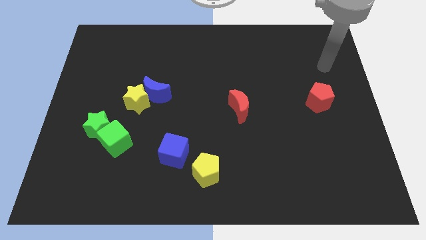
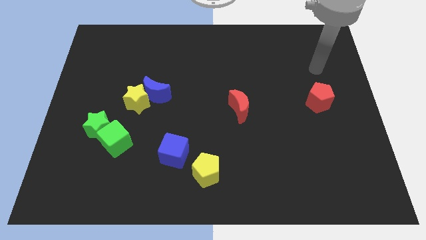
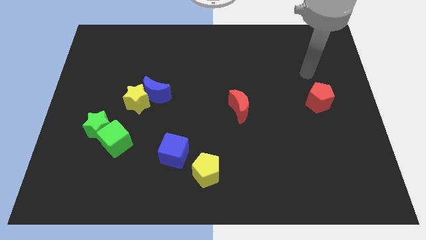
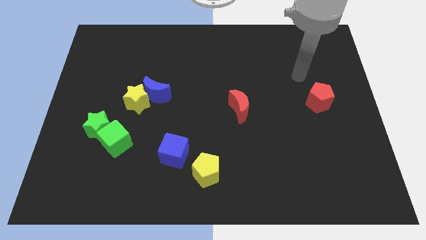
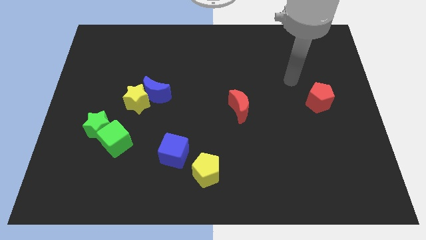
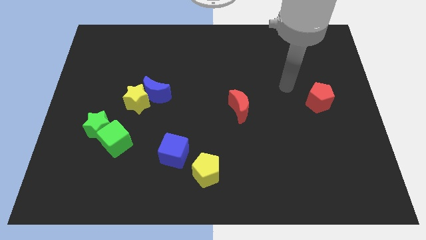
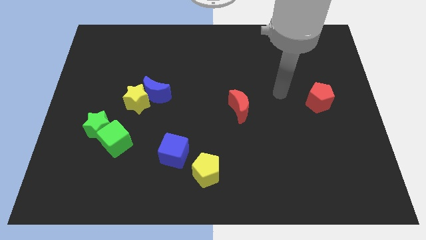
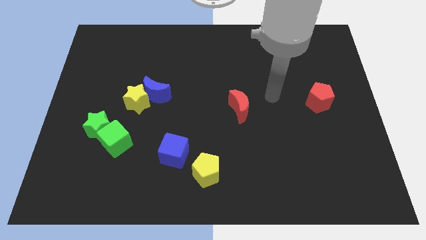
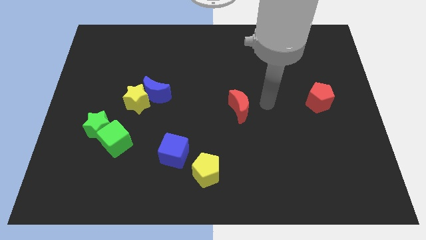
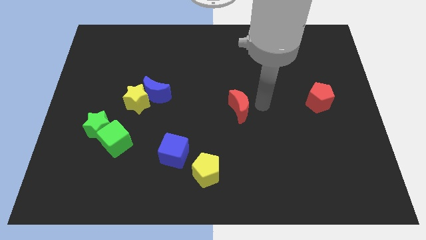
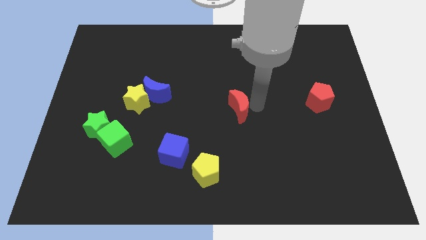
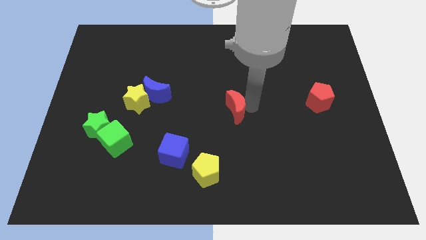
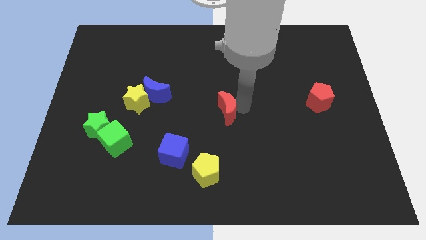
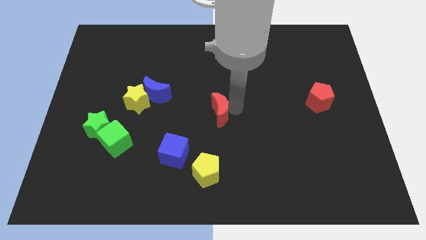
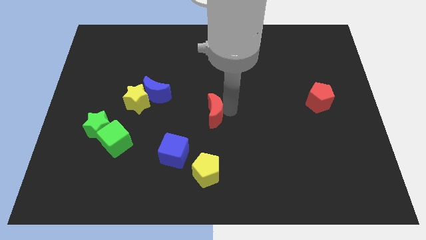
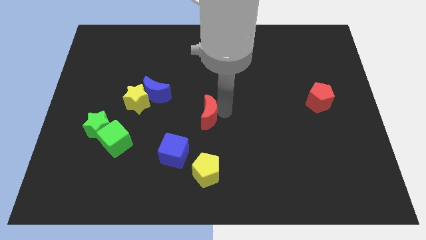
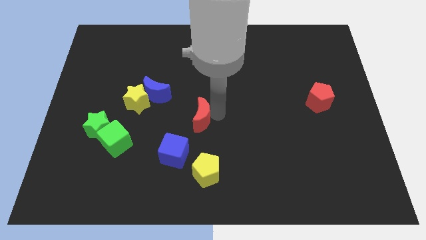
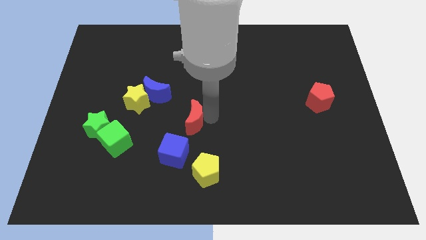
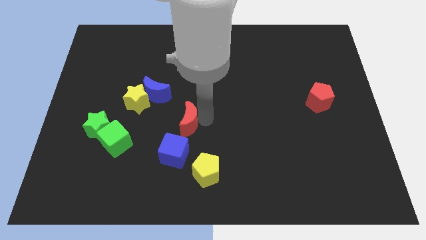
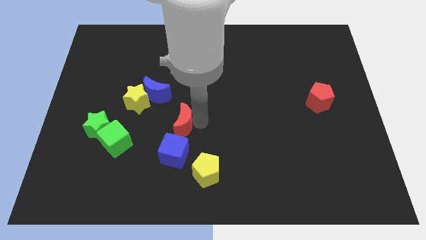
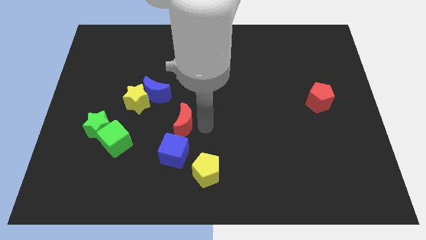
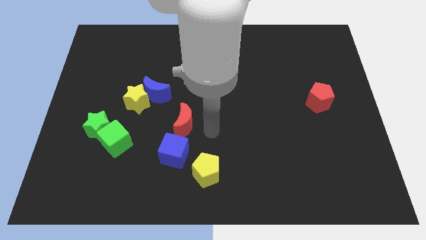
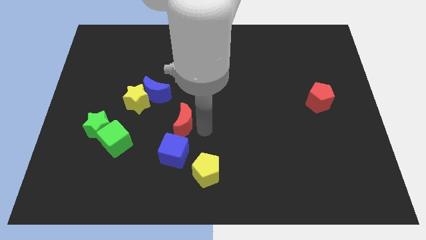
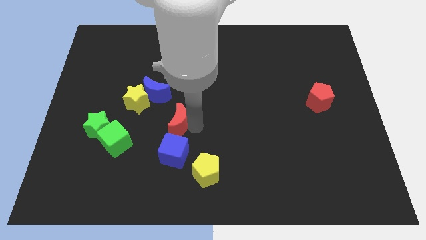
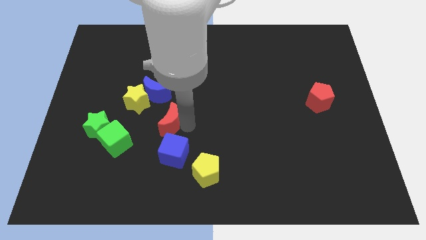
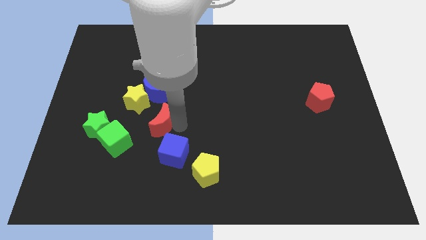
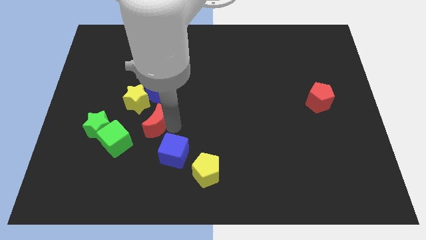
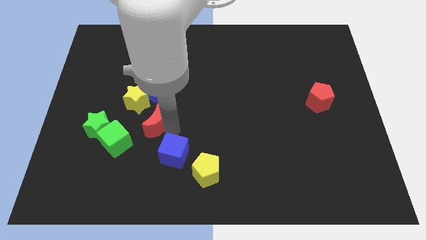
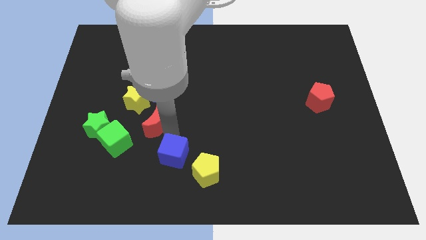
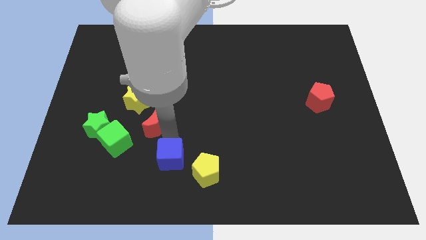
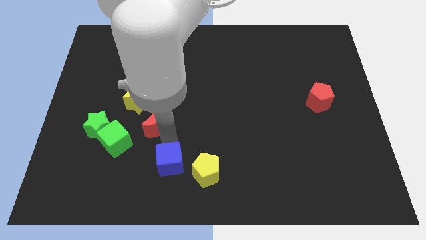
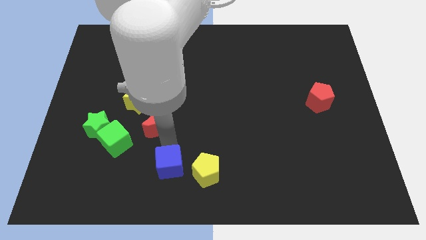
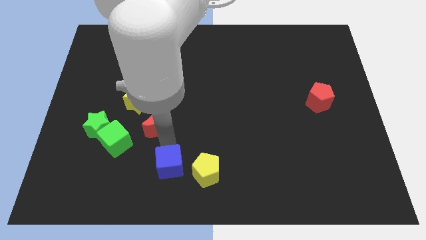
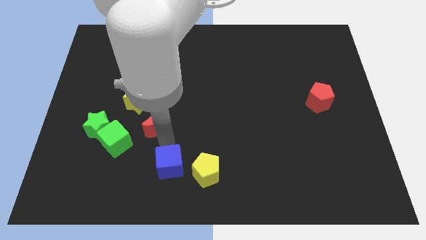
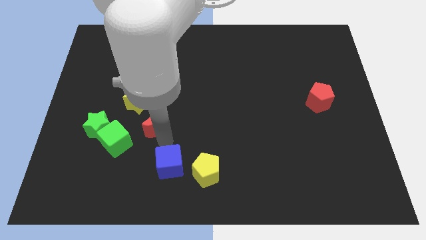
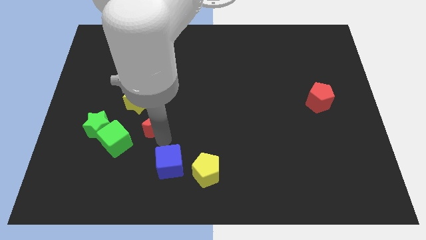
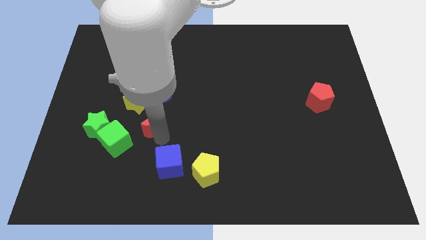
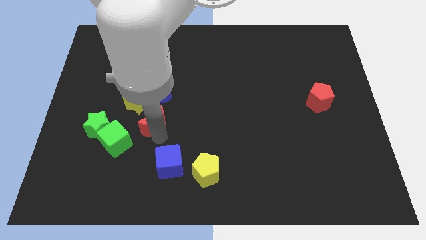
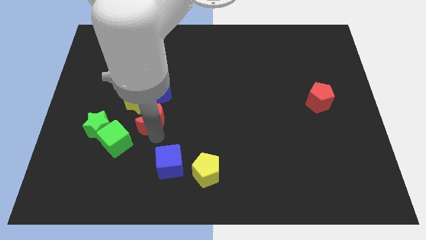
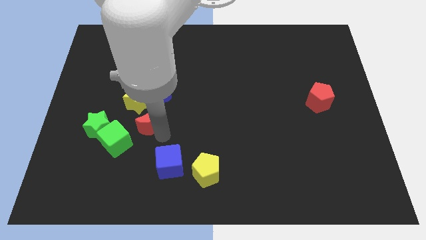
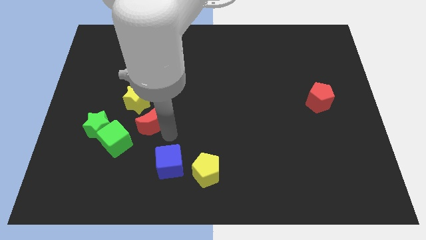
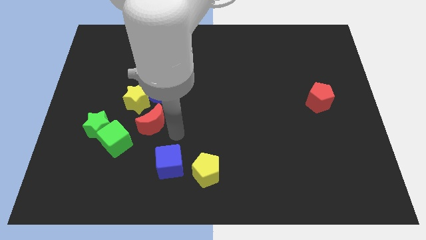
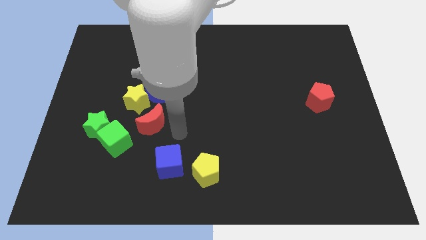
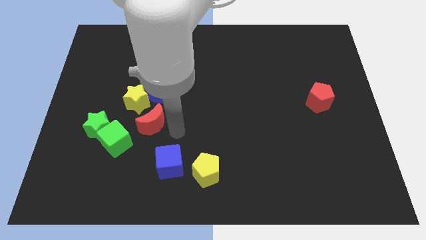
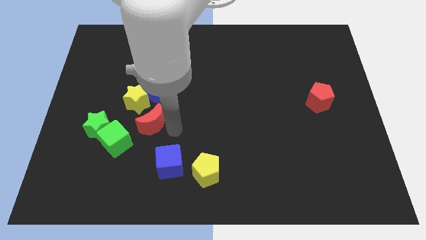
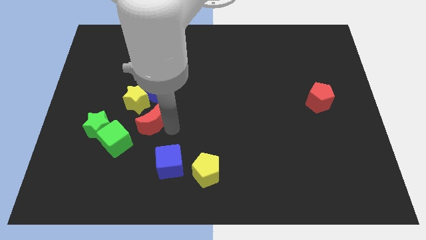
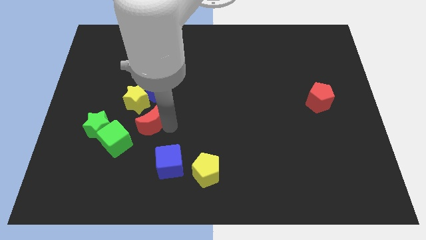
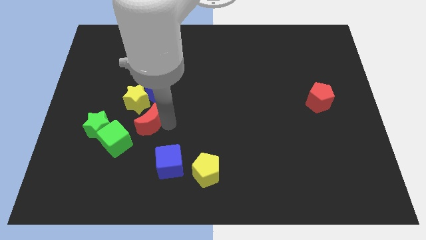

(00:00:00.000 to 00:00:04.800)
push the red moon left

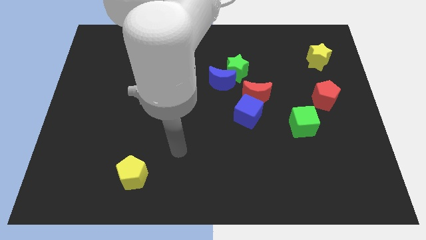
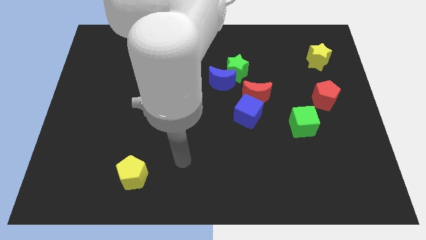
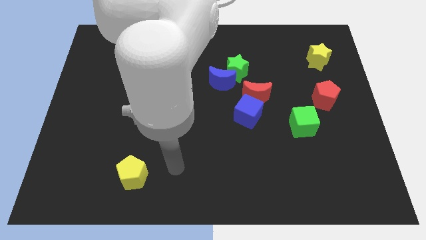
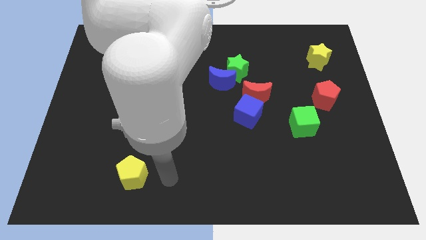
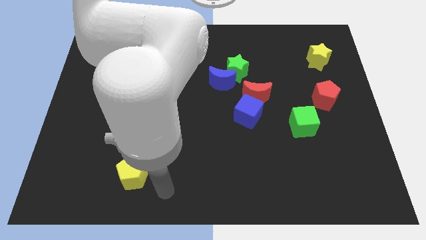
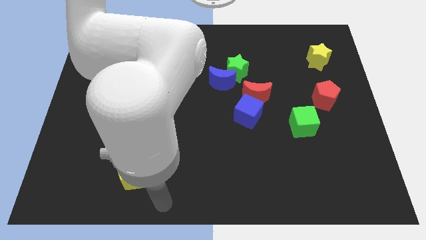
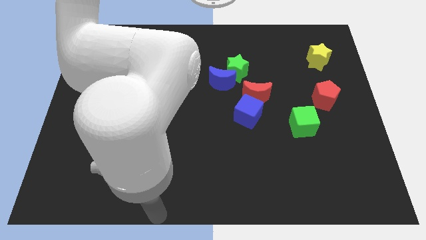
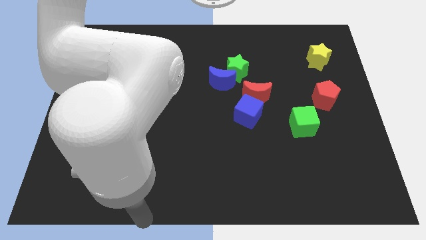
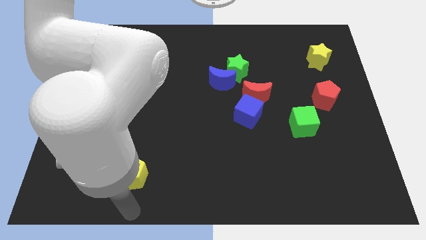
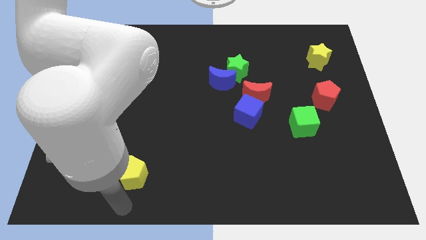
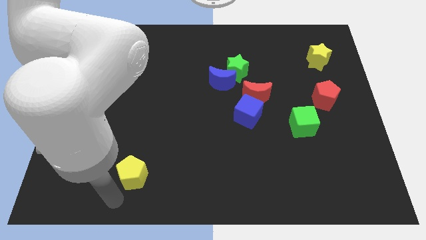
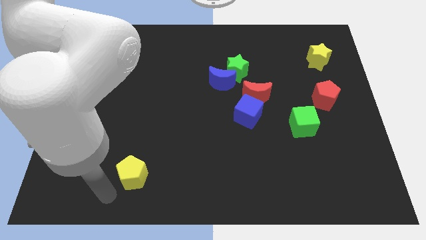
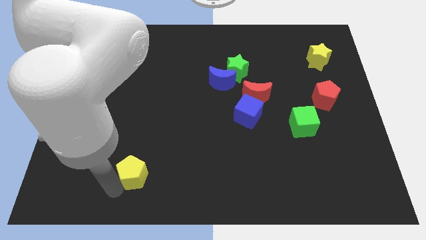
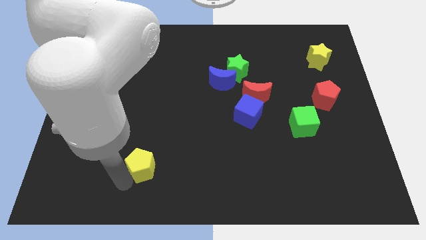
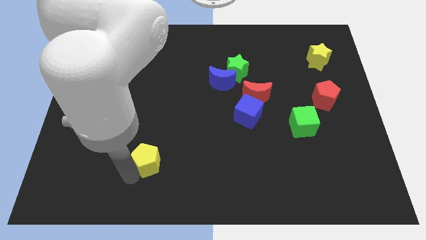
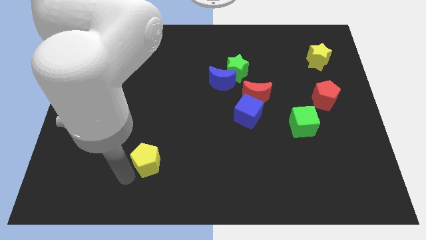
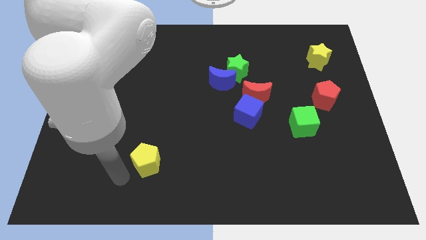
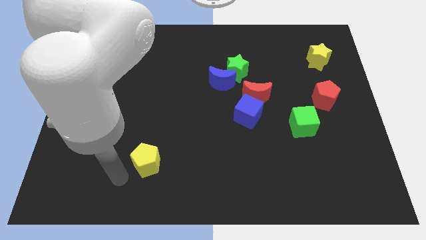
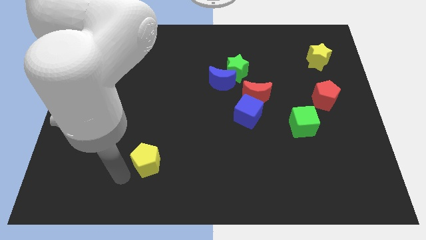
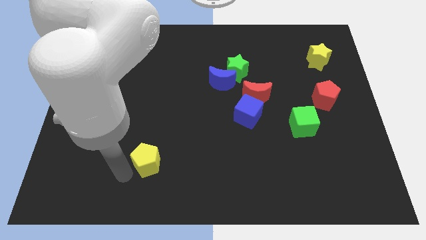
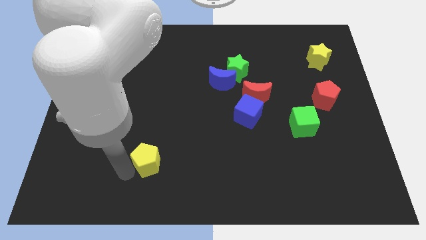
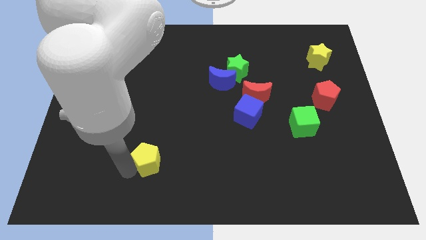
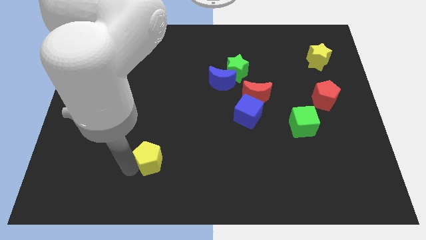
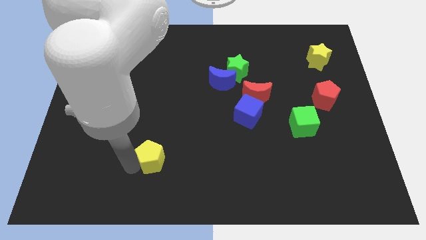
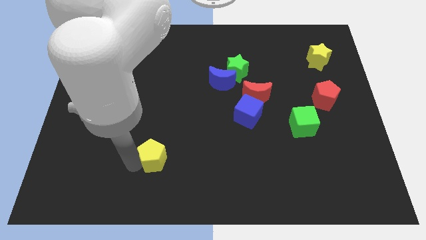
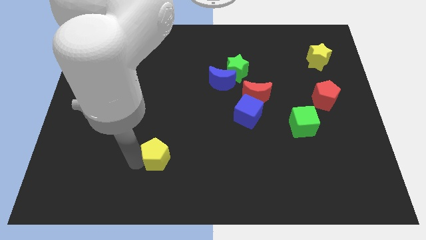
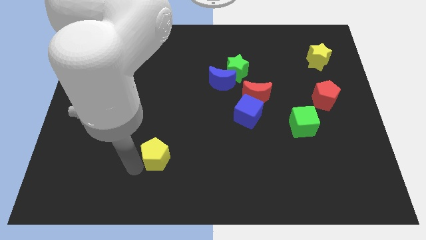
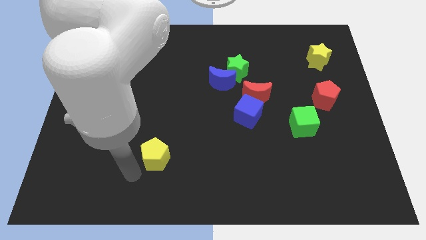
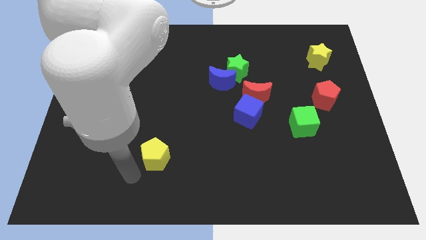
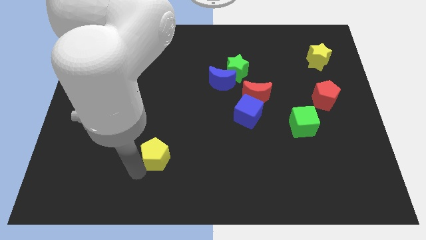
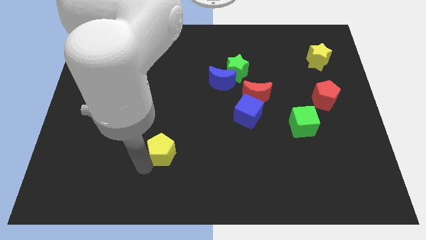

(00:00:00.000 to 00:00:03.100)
move the yellow pentagon a little bit upwards and to the right diagonally

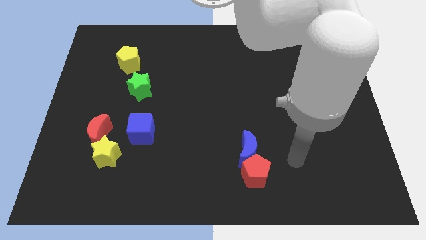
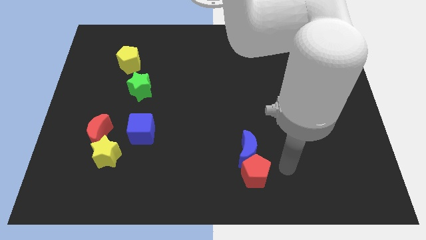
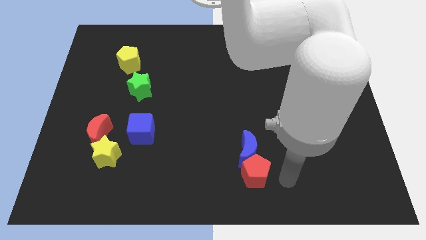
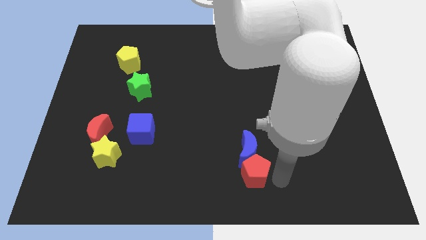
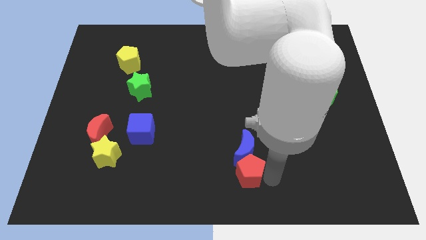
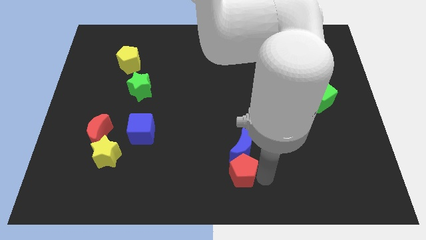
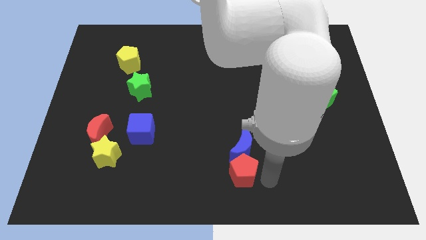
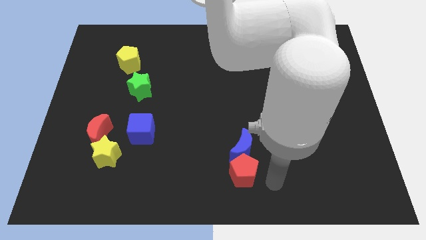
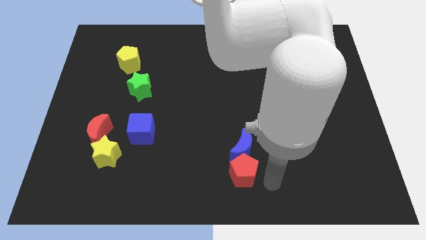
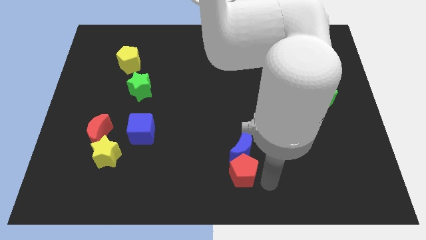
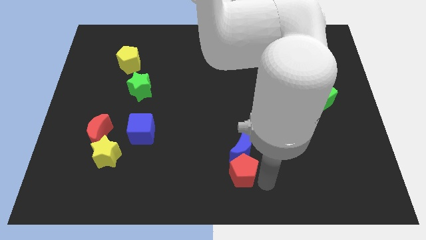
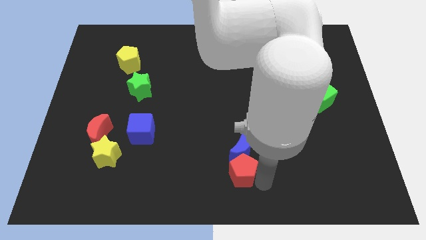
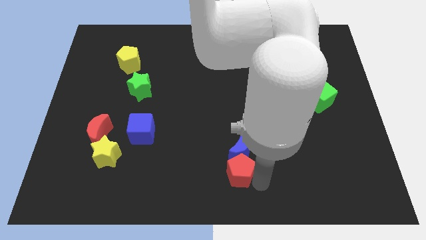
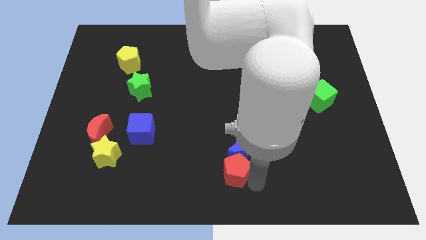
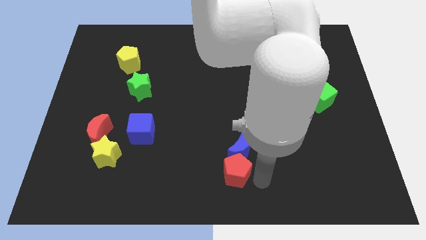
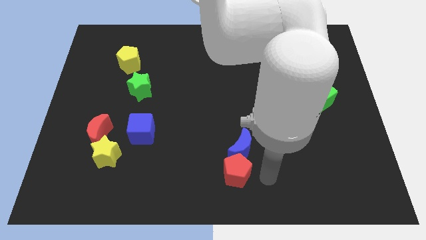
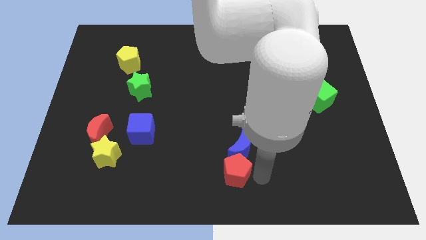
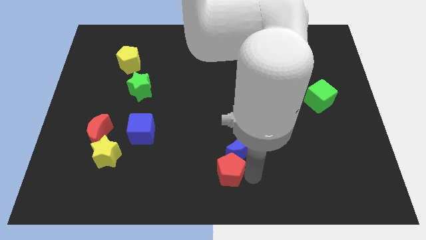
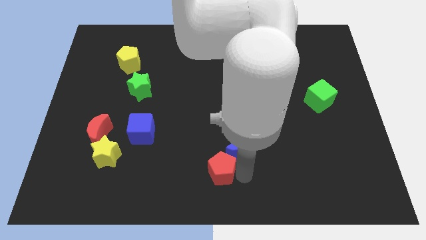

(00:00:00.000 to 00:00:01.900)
slide the red pentagon left slightly
